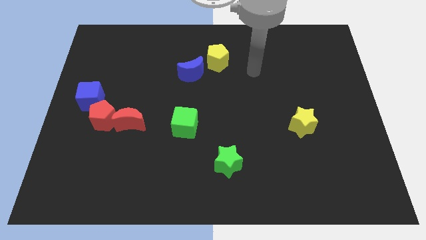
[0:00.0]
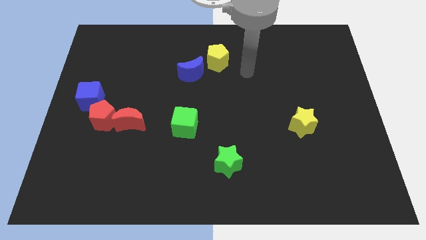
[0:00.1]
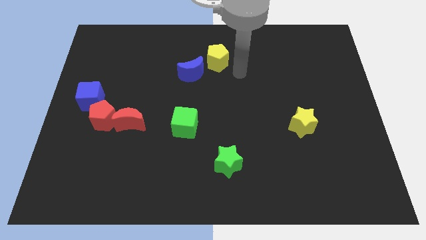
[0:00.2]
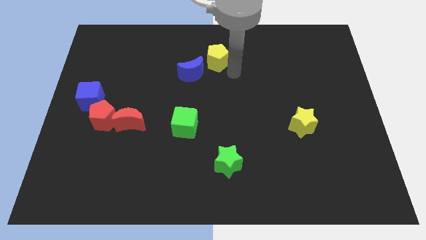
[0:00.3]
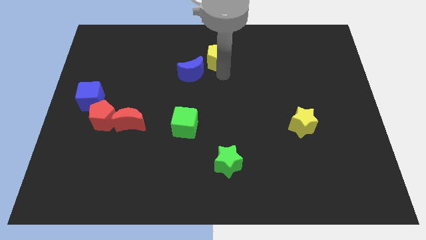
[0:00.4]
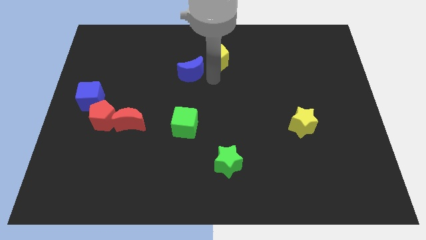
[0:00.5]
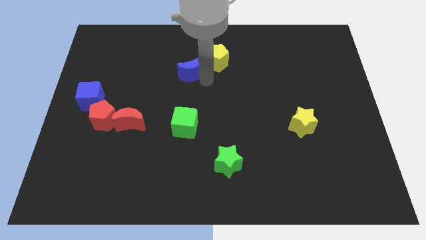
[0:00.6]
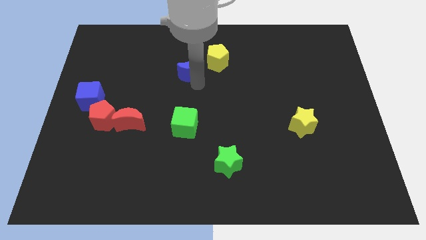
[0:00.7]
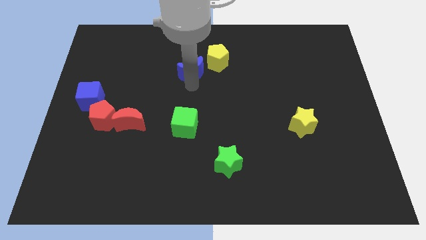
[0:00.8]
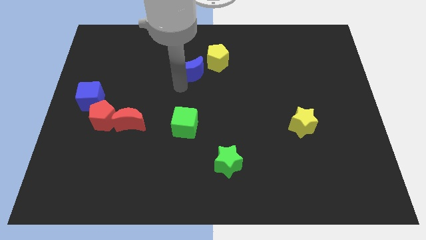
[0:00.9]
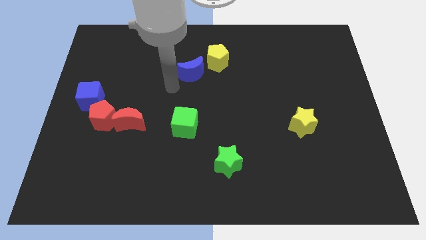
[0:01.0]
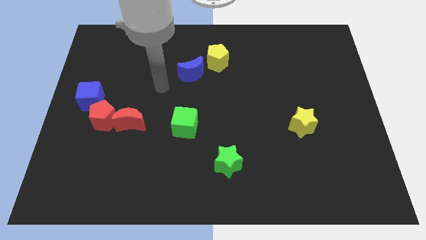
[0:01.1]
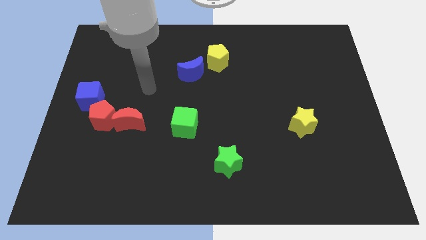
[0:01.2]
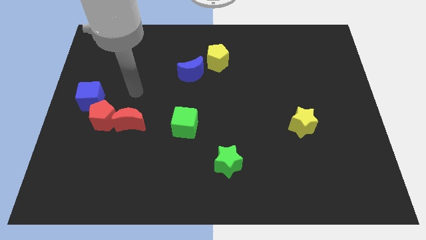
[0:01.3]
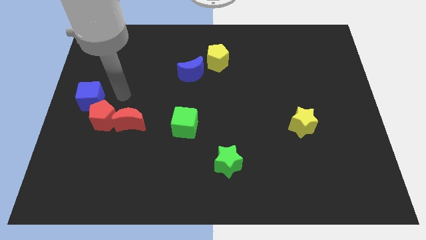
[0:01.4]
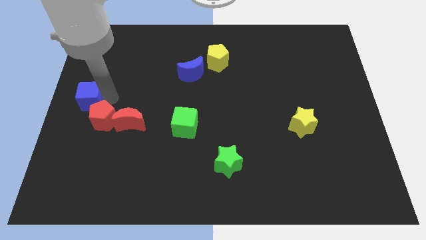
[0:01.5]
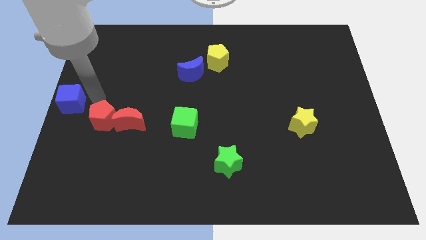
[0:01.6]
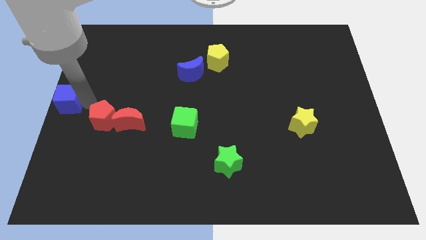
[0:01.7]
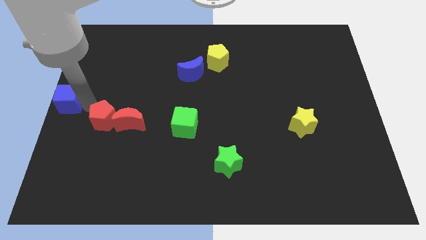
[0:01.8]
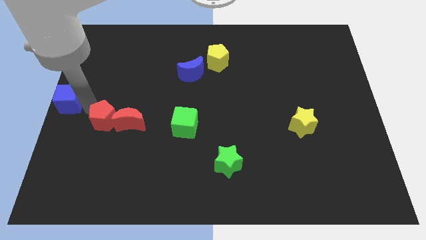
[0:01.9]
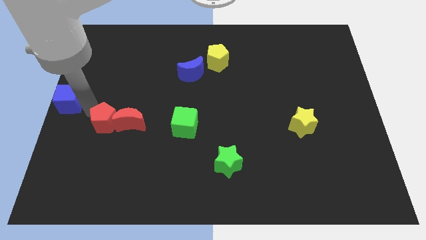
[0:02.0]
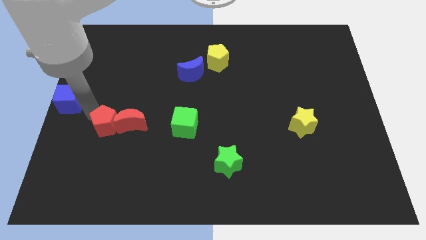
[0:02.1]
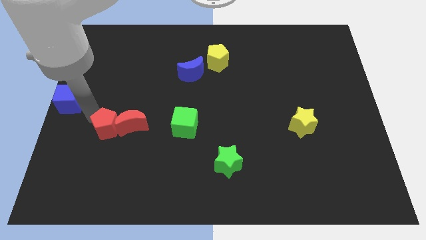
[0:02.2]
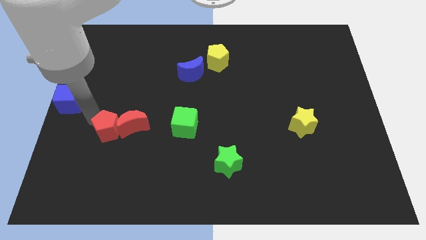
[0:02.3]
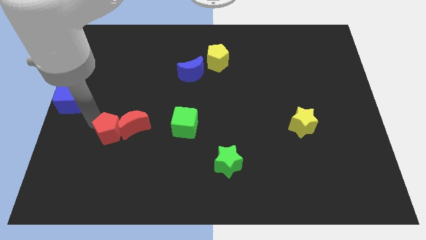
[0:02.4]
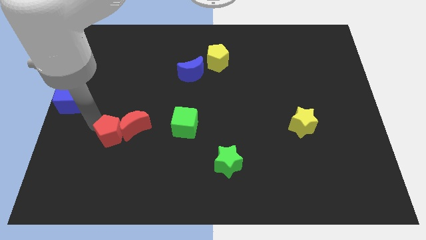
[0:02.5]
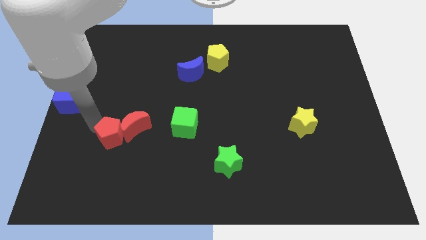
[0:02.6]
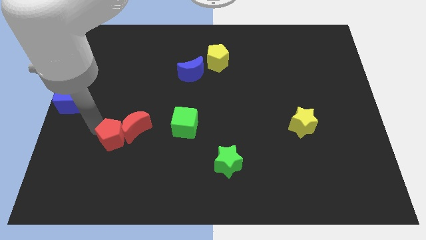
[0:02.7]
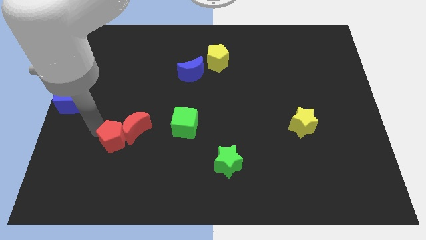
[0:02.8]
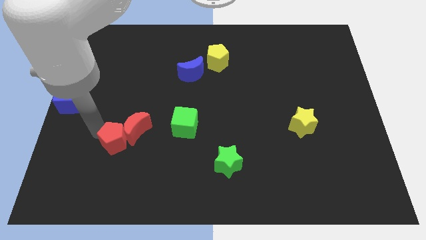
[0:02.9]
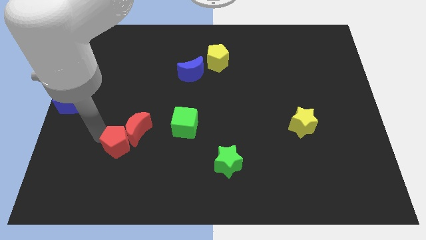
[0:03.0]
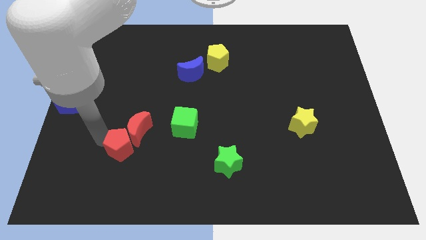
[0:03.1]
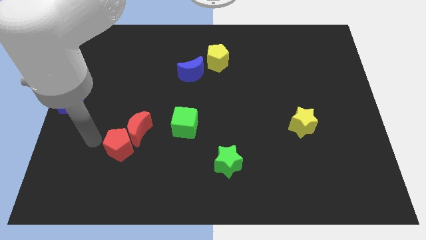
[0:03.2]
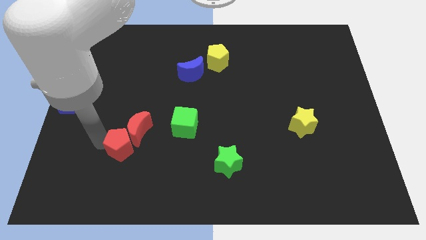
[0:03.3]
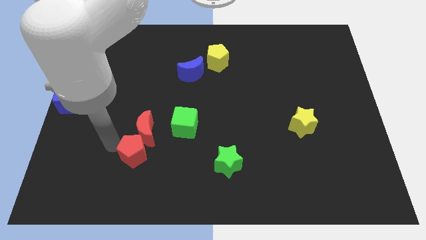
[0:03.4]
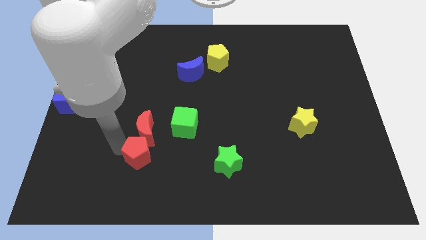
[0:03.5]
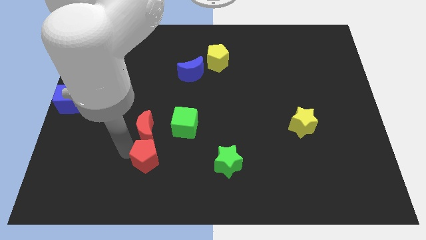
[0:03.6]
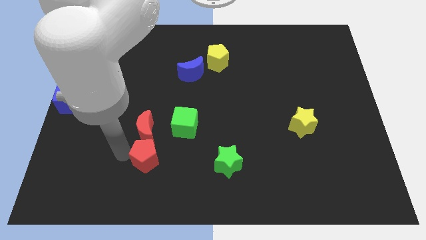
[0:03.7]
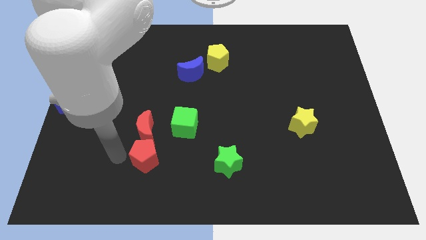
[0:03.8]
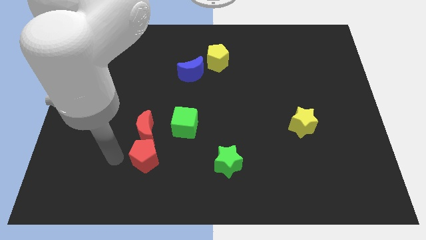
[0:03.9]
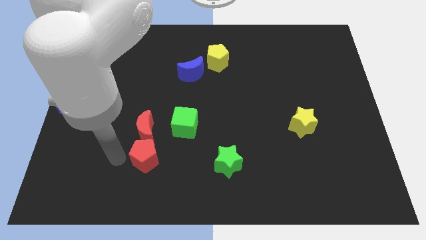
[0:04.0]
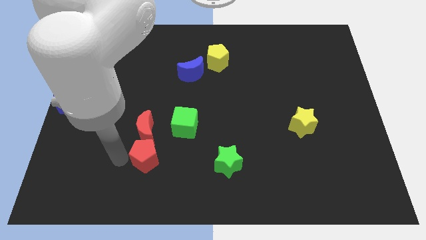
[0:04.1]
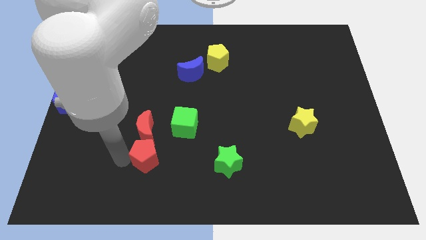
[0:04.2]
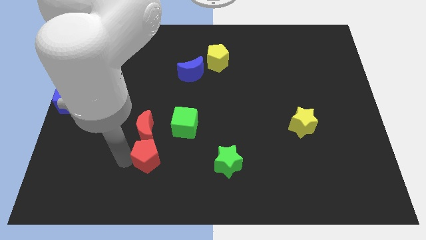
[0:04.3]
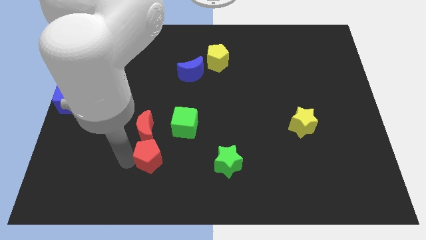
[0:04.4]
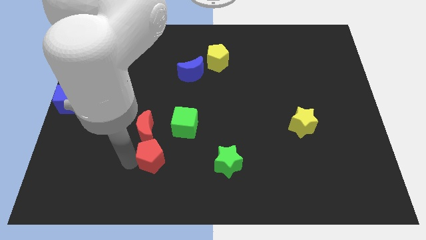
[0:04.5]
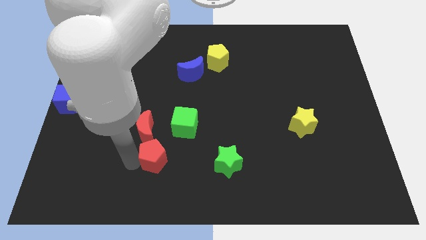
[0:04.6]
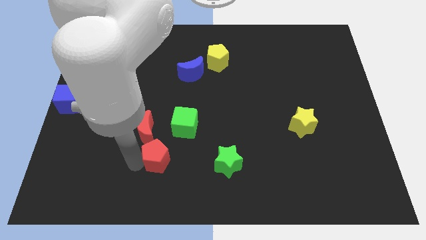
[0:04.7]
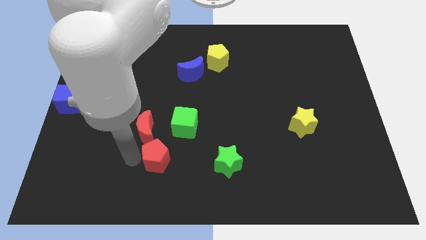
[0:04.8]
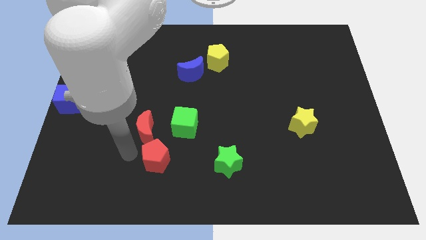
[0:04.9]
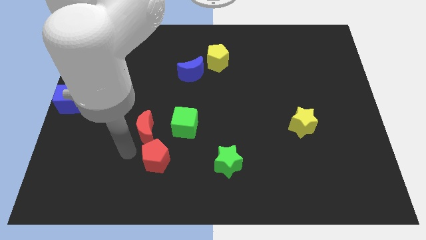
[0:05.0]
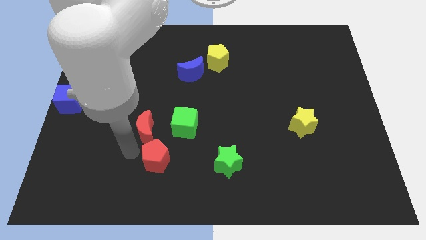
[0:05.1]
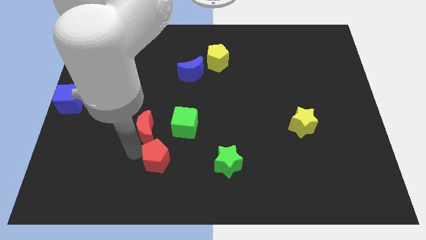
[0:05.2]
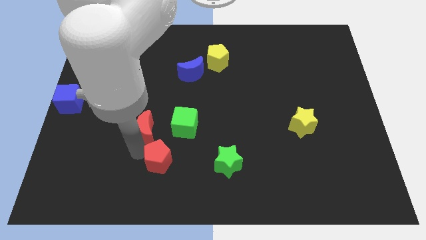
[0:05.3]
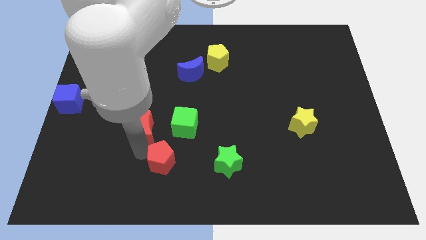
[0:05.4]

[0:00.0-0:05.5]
put the red pentagon to the bottom of the green cube

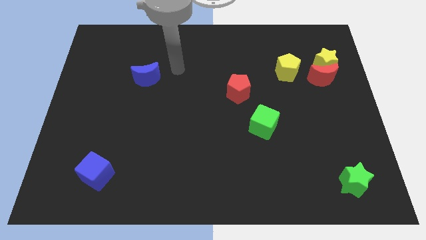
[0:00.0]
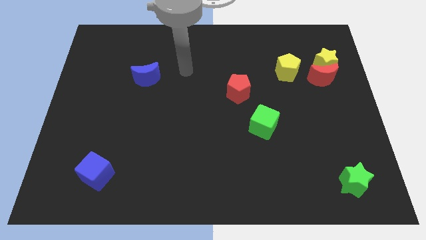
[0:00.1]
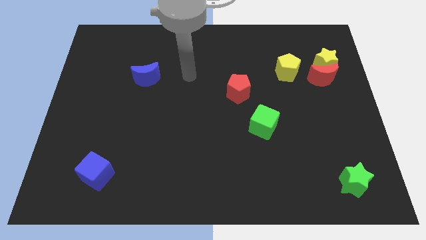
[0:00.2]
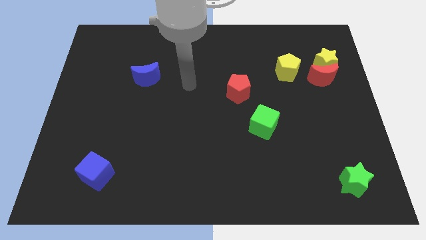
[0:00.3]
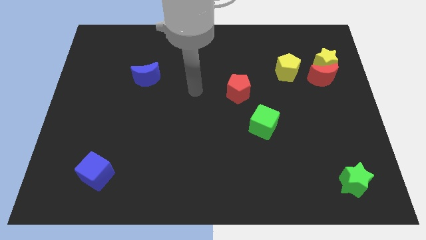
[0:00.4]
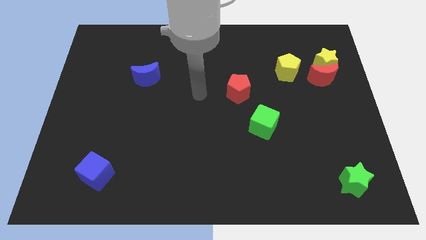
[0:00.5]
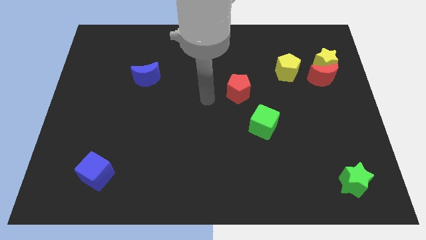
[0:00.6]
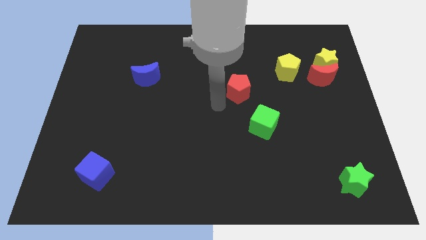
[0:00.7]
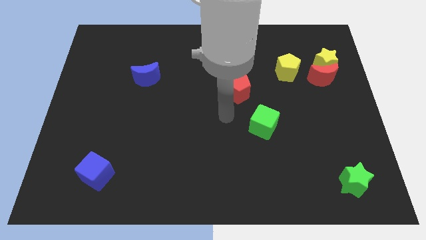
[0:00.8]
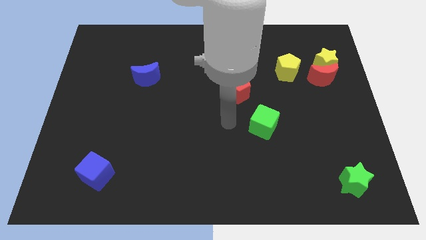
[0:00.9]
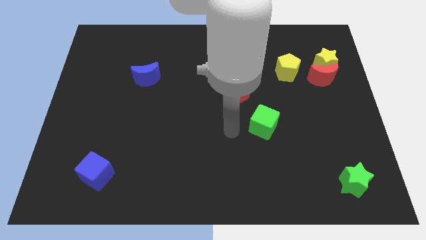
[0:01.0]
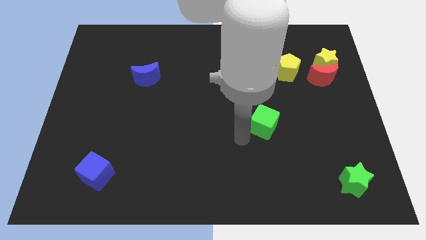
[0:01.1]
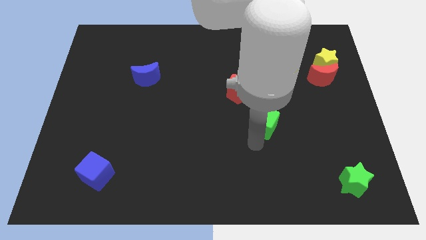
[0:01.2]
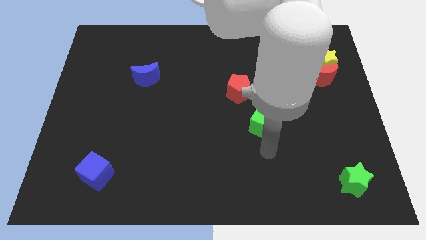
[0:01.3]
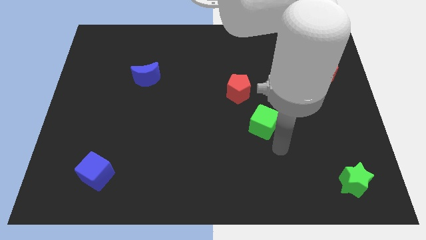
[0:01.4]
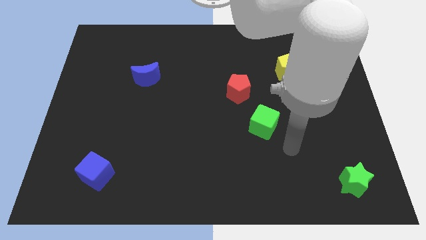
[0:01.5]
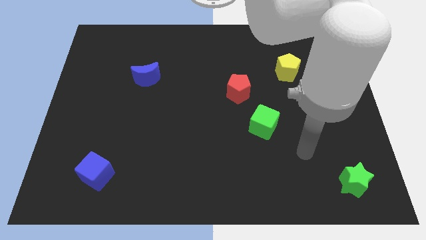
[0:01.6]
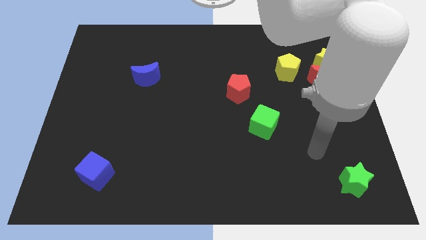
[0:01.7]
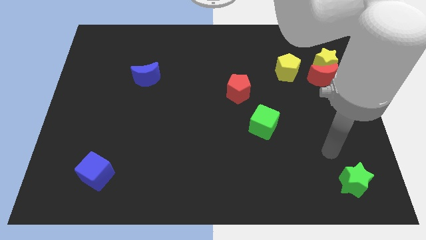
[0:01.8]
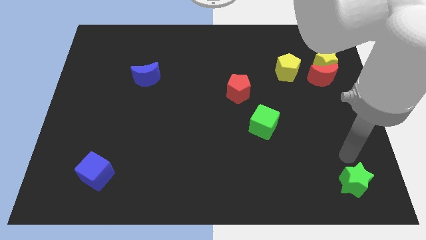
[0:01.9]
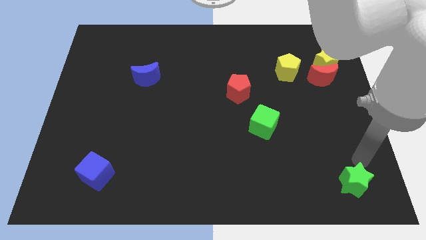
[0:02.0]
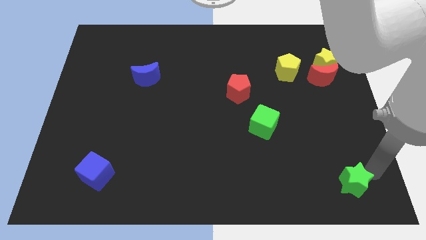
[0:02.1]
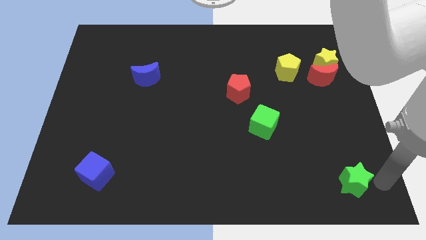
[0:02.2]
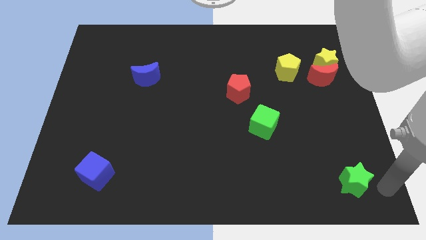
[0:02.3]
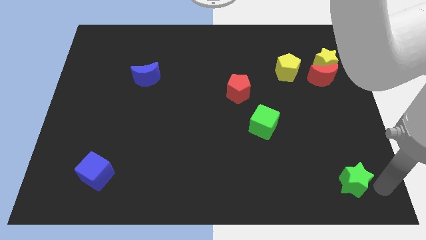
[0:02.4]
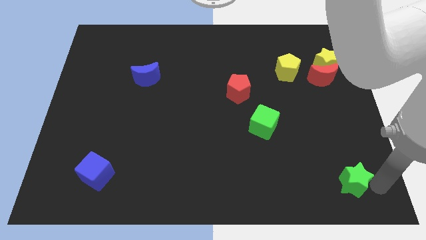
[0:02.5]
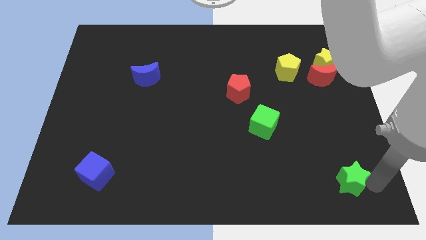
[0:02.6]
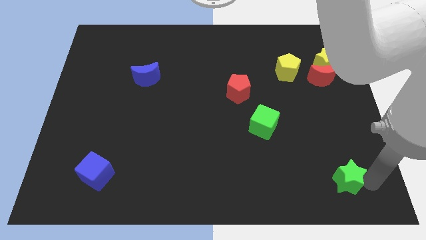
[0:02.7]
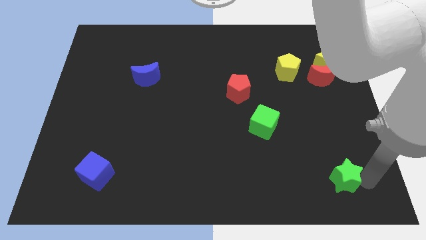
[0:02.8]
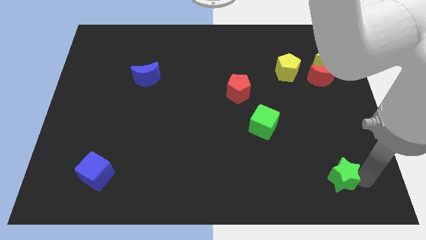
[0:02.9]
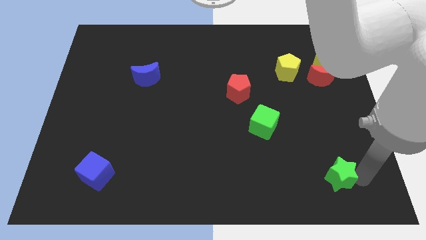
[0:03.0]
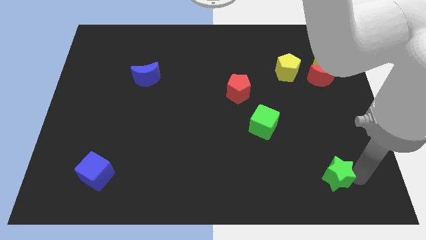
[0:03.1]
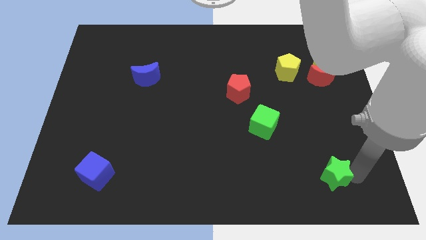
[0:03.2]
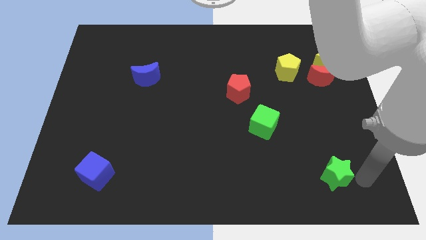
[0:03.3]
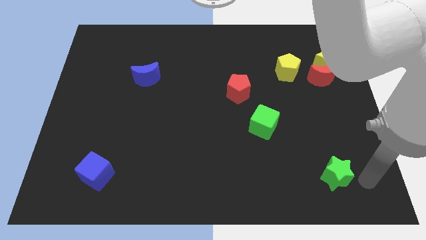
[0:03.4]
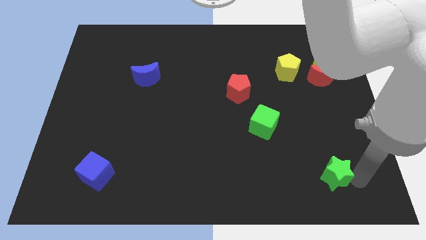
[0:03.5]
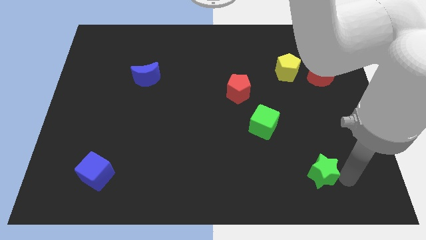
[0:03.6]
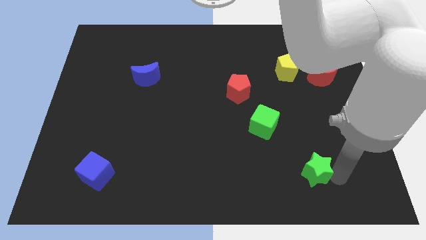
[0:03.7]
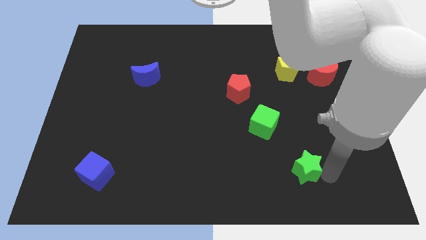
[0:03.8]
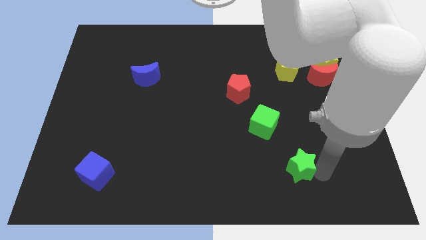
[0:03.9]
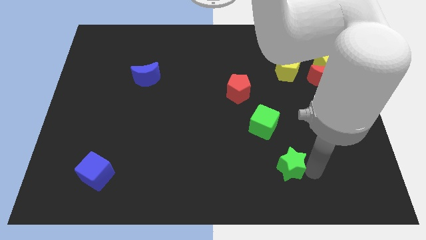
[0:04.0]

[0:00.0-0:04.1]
slide the green star to the bottom of the green cube
